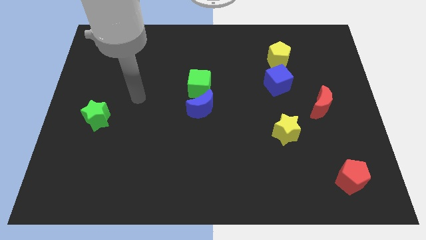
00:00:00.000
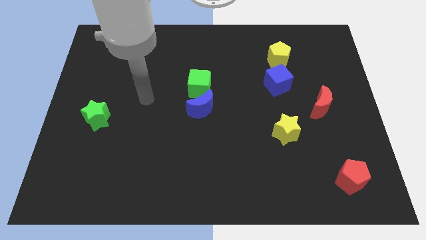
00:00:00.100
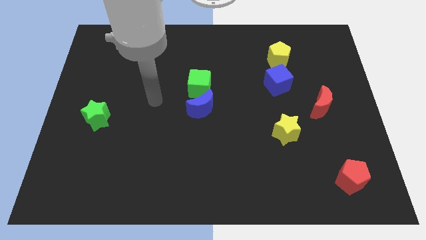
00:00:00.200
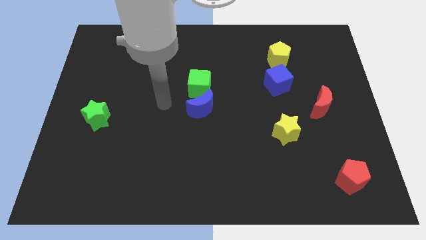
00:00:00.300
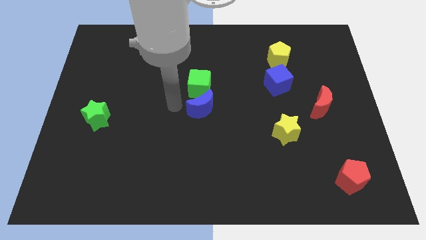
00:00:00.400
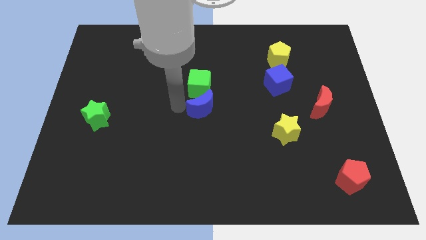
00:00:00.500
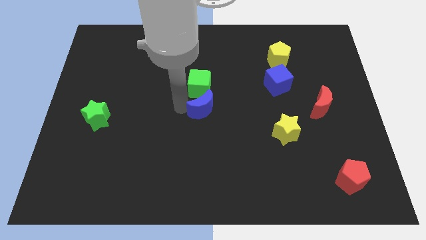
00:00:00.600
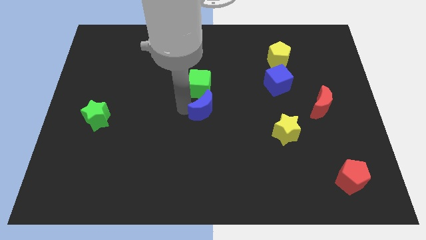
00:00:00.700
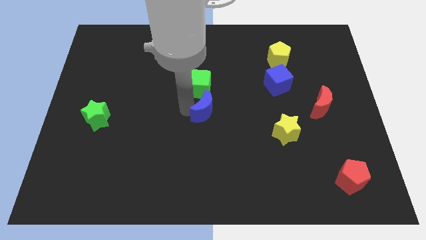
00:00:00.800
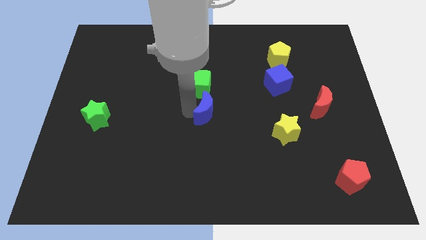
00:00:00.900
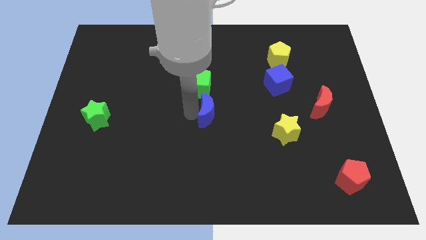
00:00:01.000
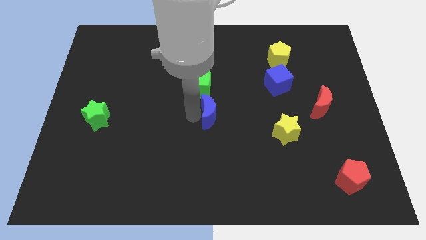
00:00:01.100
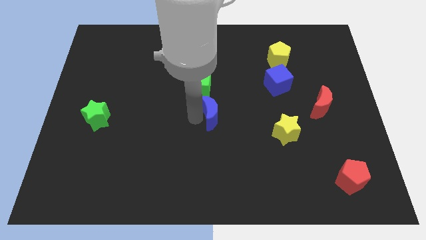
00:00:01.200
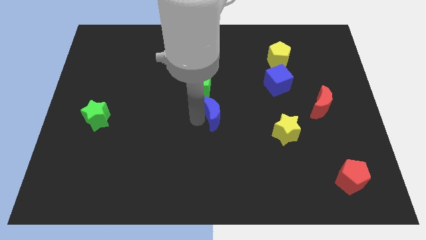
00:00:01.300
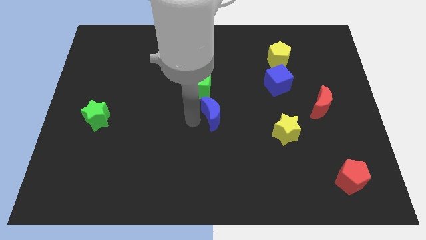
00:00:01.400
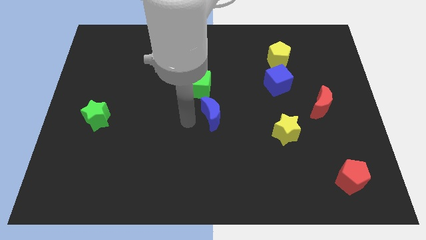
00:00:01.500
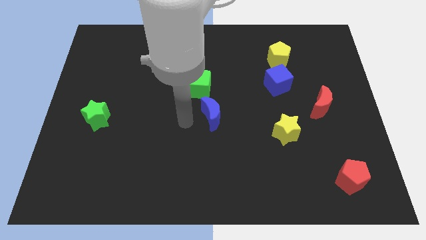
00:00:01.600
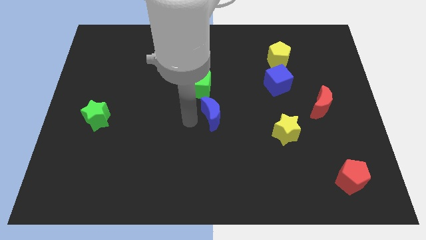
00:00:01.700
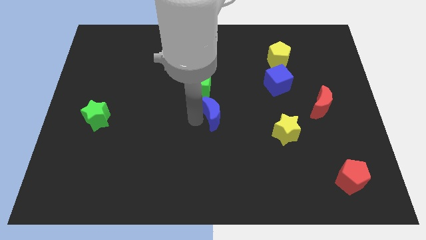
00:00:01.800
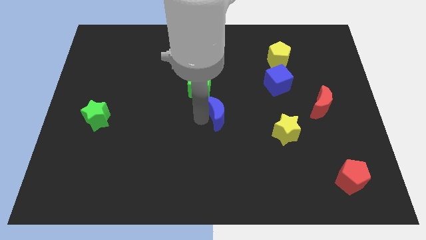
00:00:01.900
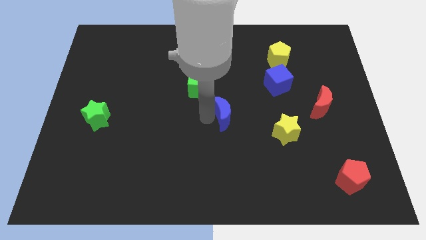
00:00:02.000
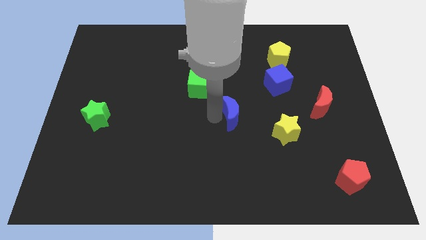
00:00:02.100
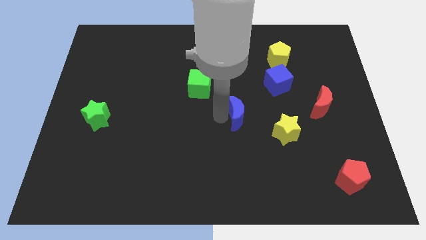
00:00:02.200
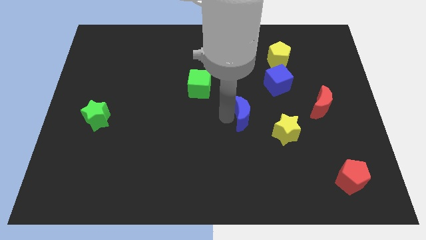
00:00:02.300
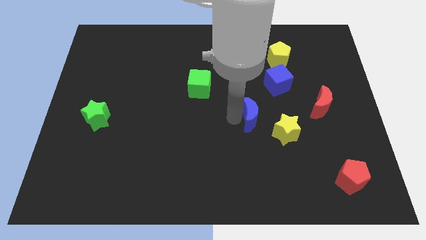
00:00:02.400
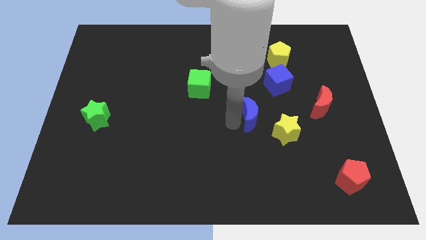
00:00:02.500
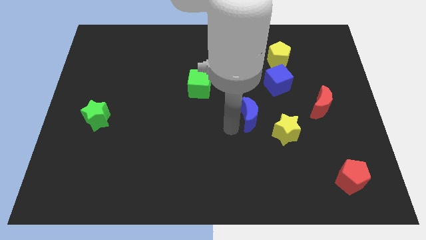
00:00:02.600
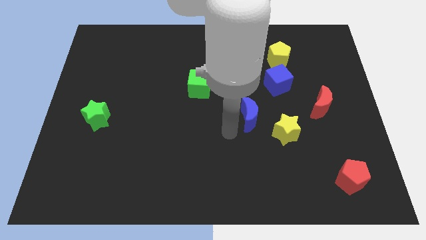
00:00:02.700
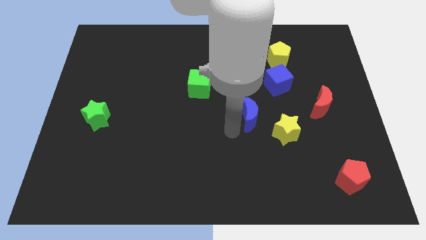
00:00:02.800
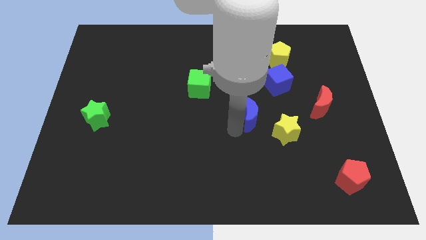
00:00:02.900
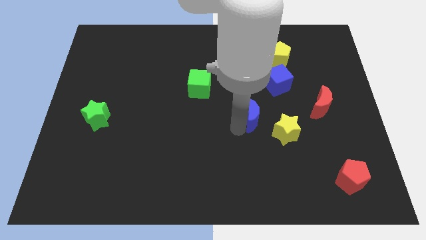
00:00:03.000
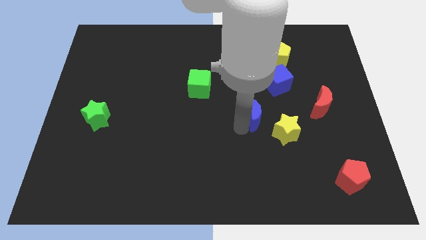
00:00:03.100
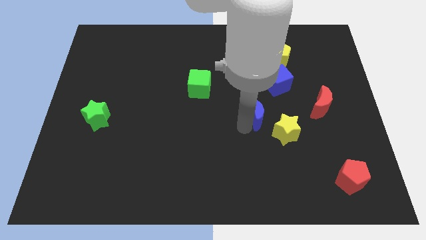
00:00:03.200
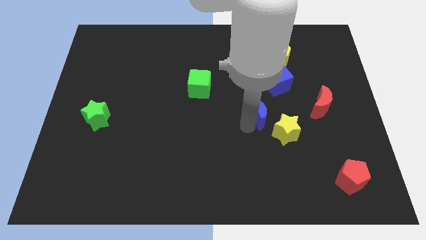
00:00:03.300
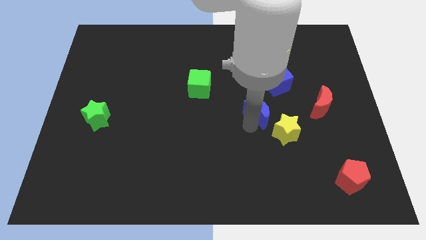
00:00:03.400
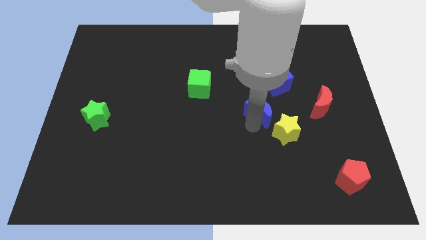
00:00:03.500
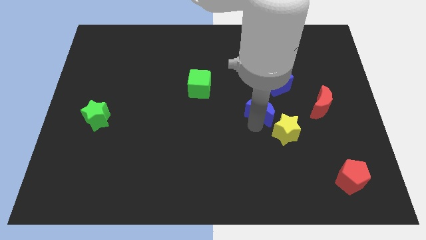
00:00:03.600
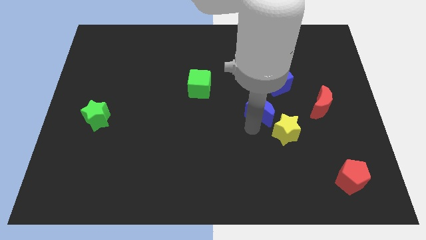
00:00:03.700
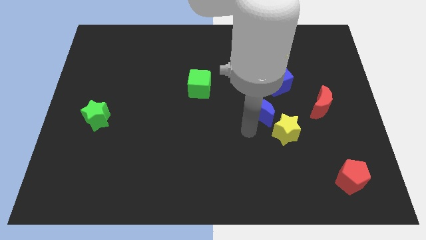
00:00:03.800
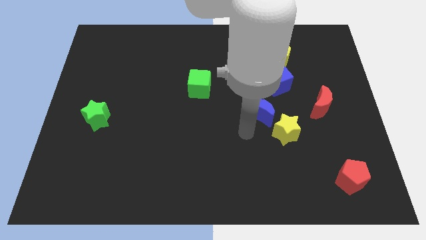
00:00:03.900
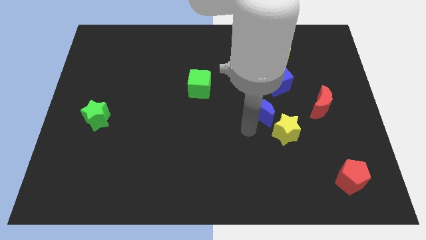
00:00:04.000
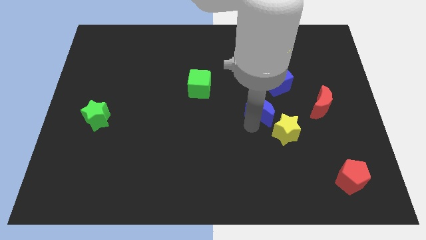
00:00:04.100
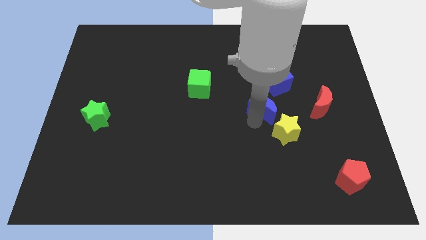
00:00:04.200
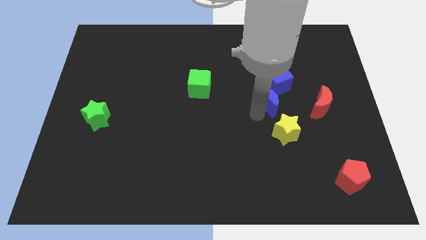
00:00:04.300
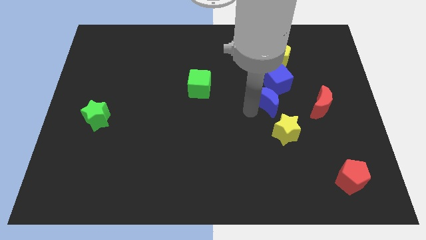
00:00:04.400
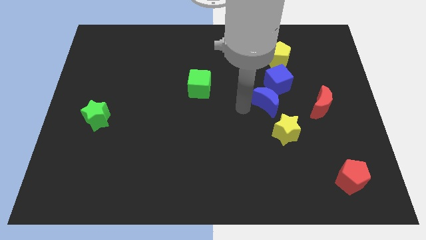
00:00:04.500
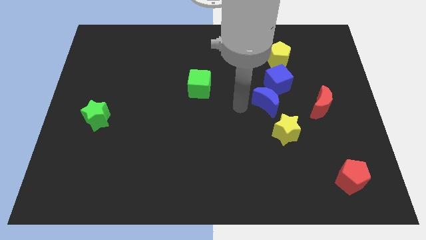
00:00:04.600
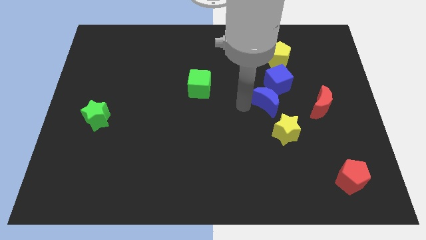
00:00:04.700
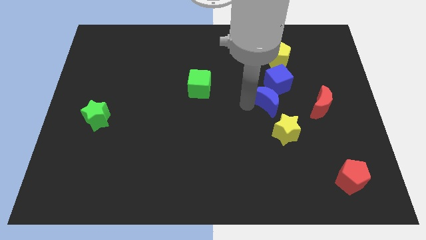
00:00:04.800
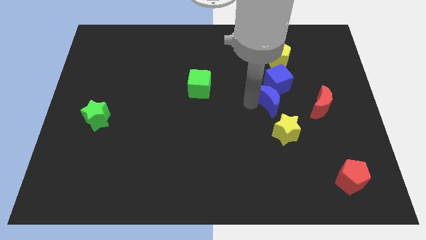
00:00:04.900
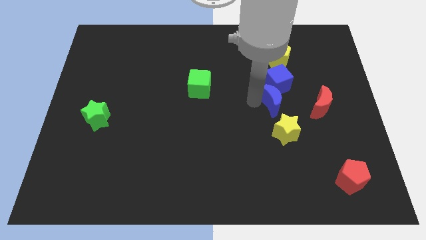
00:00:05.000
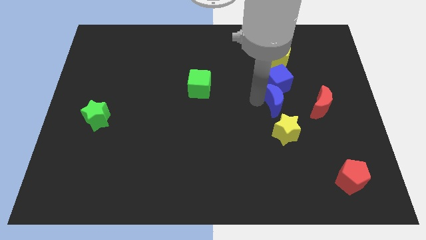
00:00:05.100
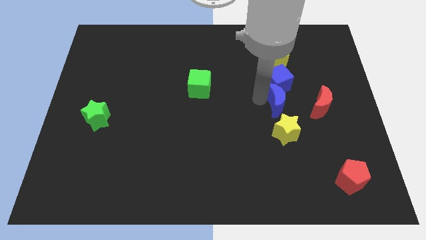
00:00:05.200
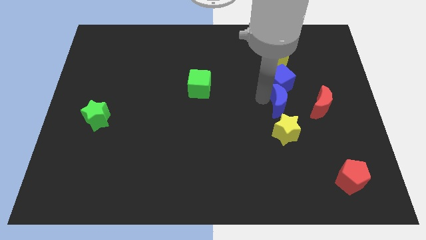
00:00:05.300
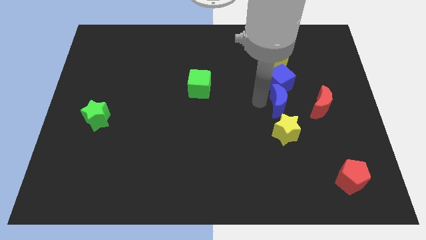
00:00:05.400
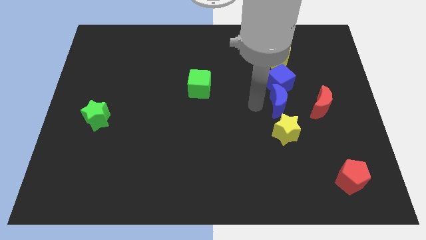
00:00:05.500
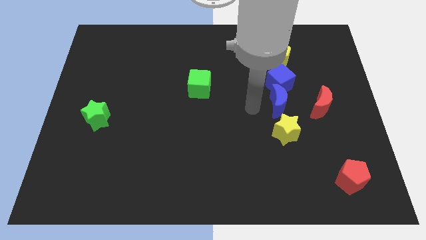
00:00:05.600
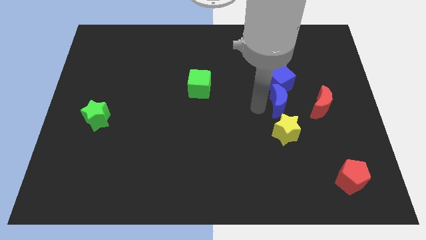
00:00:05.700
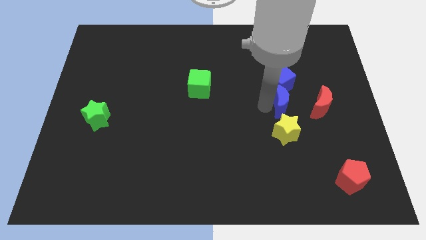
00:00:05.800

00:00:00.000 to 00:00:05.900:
push the blue moon to the bottom right side of the blue cube

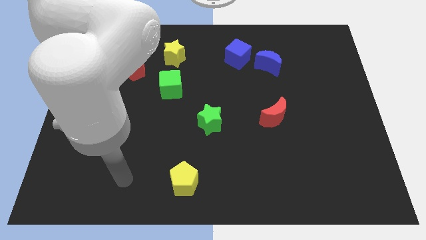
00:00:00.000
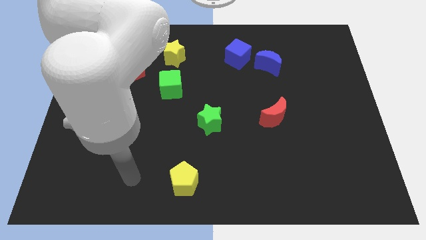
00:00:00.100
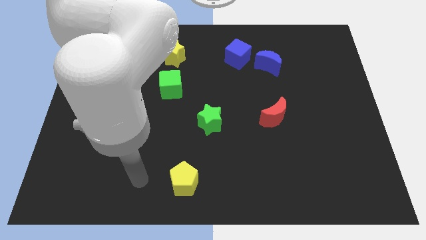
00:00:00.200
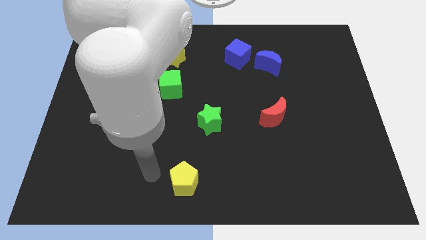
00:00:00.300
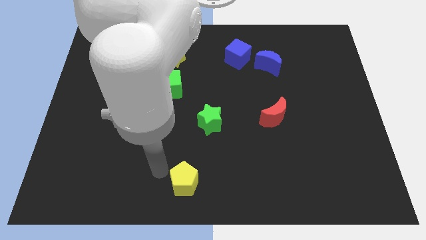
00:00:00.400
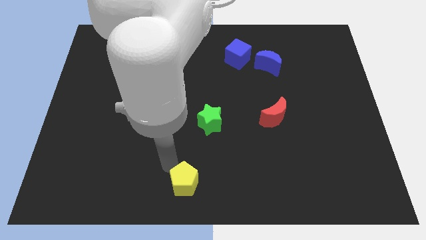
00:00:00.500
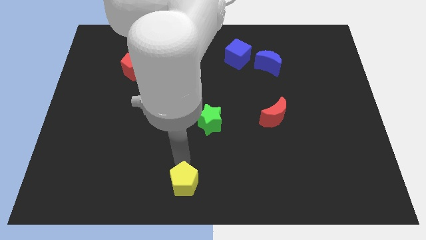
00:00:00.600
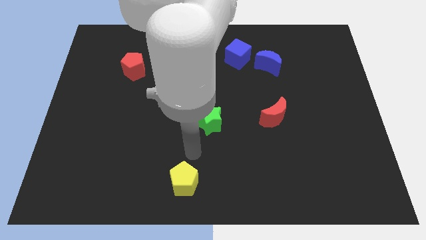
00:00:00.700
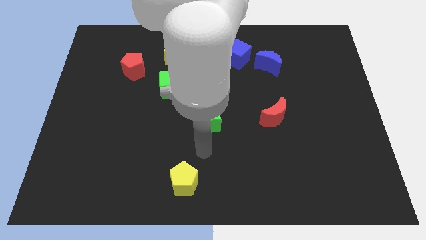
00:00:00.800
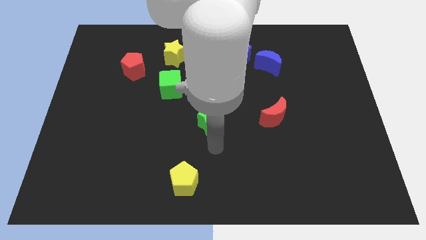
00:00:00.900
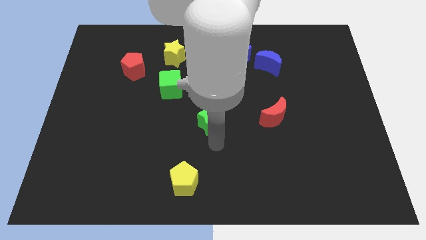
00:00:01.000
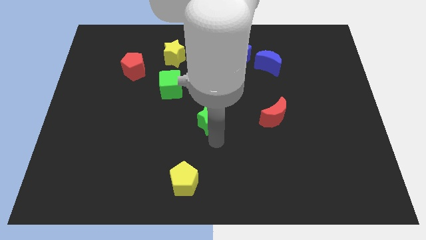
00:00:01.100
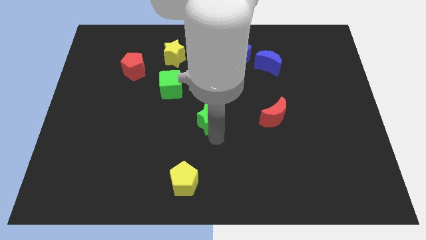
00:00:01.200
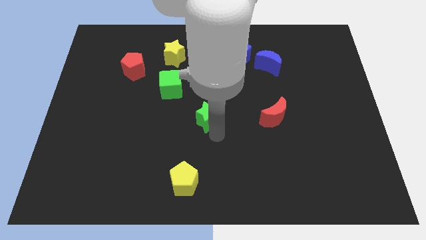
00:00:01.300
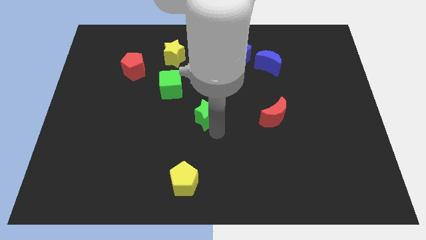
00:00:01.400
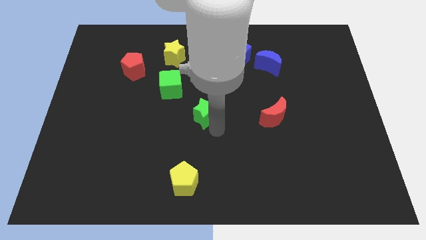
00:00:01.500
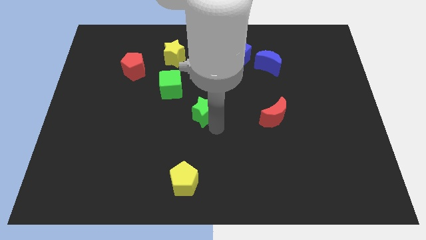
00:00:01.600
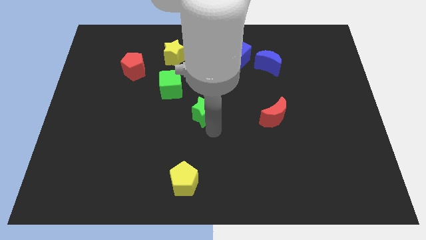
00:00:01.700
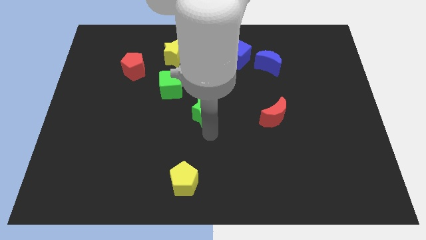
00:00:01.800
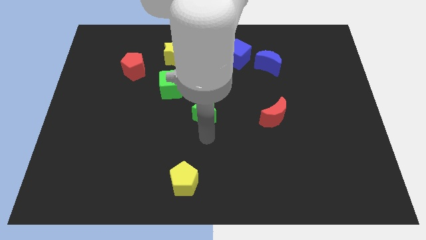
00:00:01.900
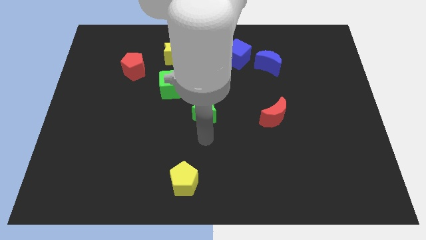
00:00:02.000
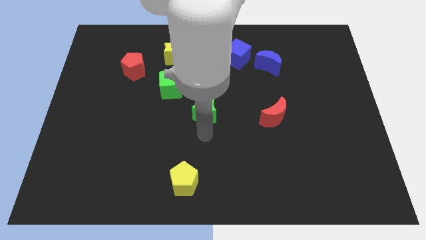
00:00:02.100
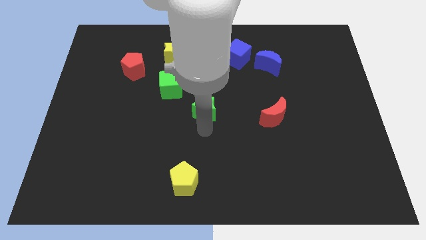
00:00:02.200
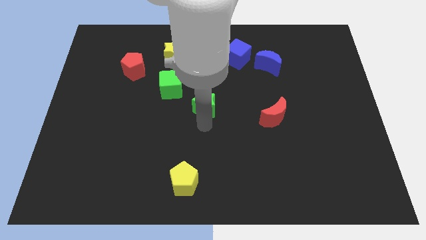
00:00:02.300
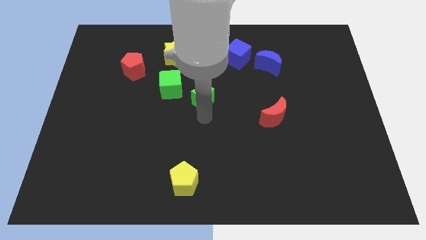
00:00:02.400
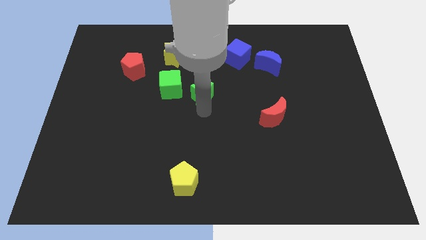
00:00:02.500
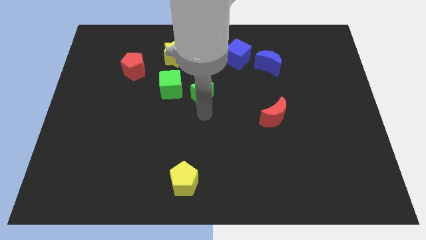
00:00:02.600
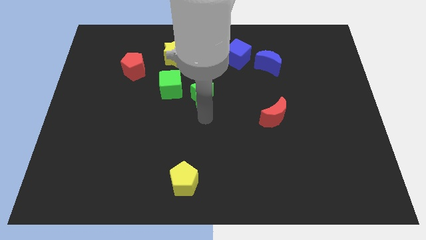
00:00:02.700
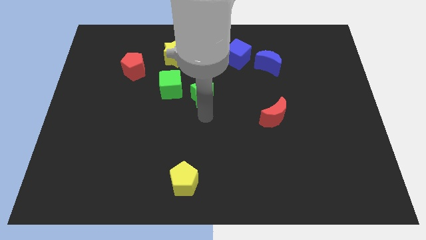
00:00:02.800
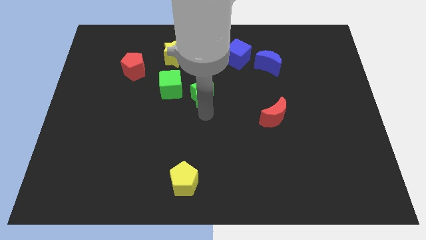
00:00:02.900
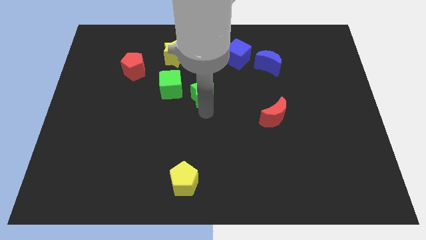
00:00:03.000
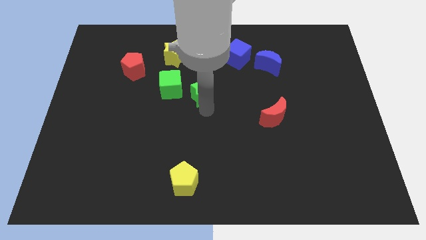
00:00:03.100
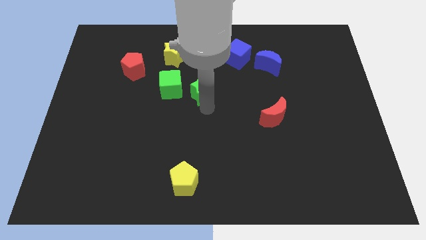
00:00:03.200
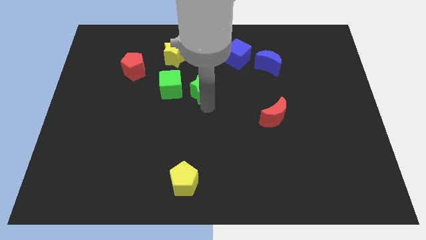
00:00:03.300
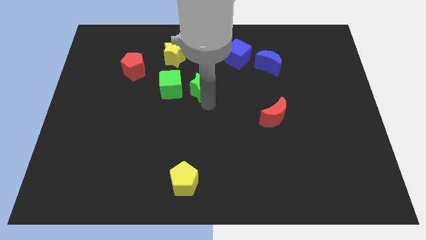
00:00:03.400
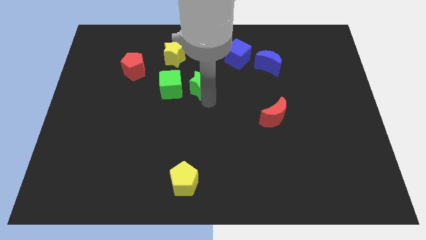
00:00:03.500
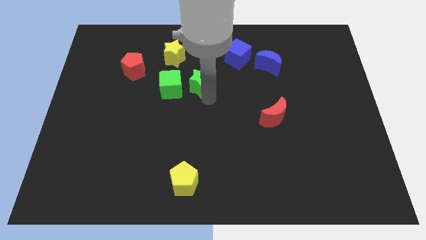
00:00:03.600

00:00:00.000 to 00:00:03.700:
put the green star diagonally down and to the right of the yellow star
